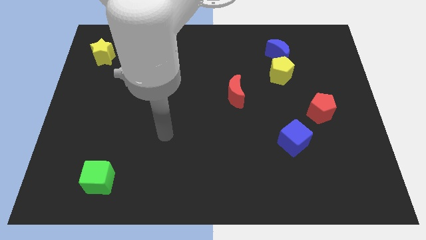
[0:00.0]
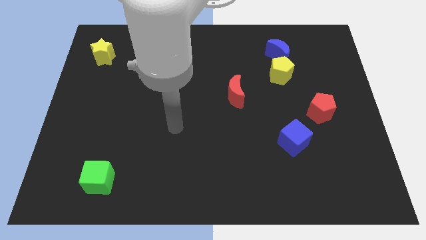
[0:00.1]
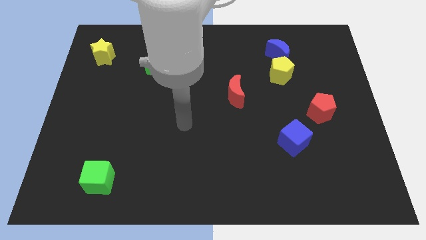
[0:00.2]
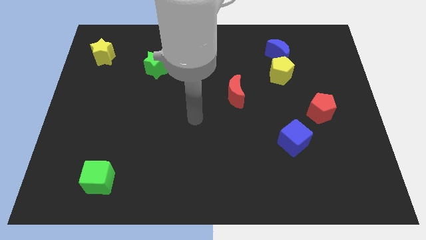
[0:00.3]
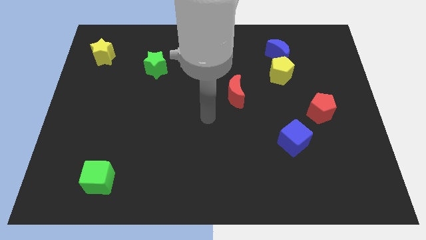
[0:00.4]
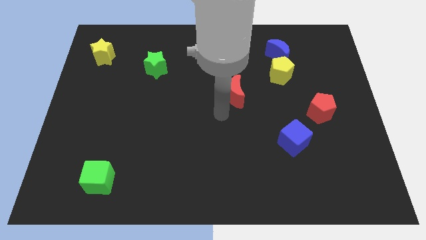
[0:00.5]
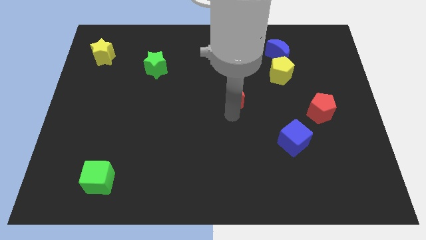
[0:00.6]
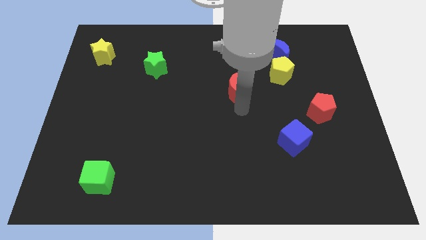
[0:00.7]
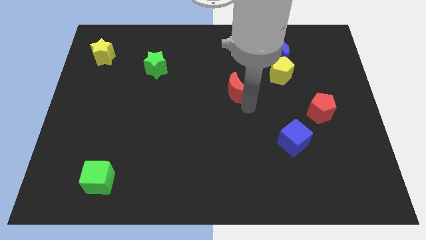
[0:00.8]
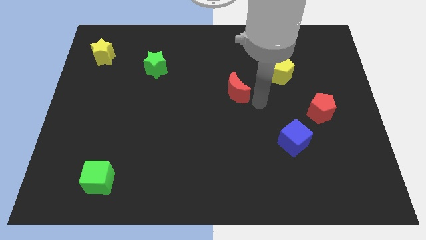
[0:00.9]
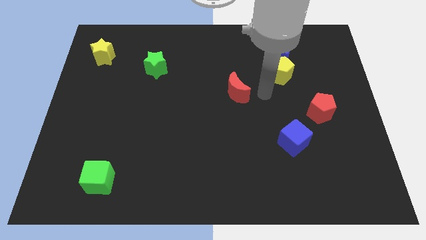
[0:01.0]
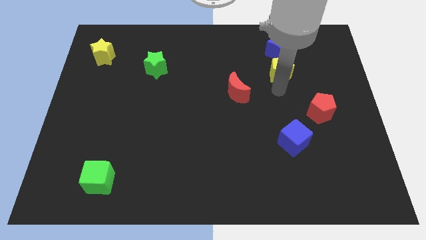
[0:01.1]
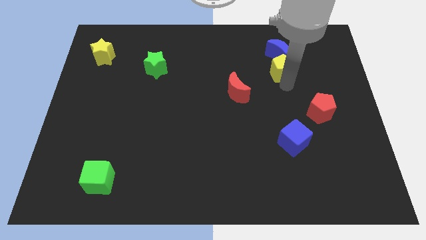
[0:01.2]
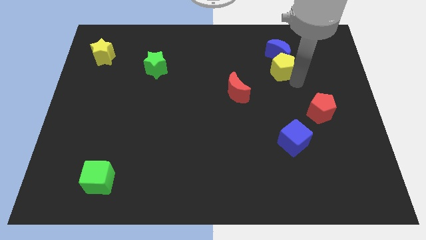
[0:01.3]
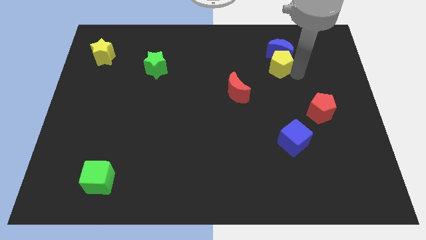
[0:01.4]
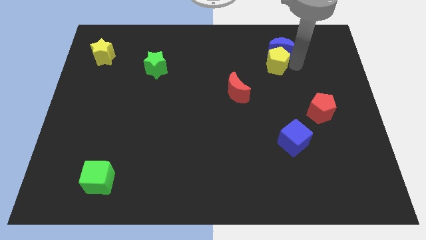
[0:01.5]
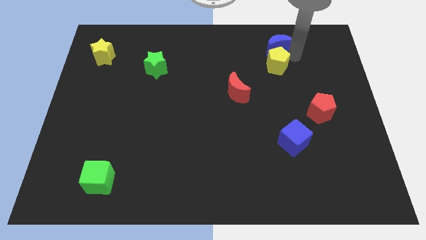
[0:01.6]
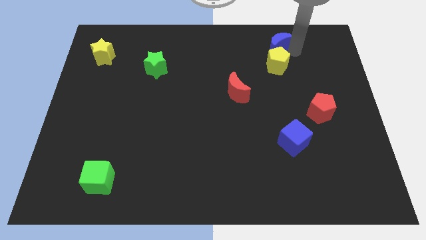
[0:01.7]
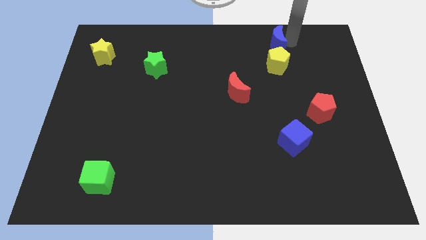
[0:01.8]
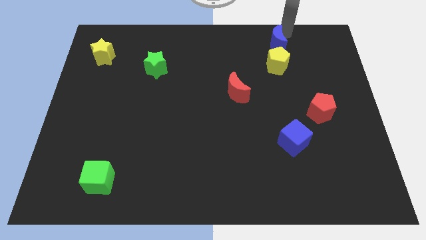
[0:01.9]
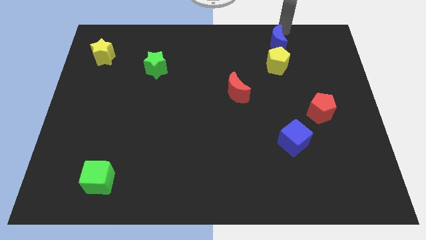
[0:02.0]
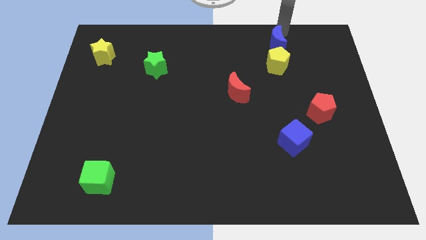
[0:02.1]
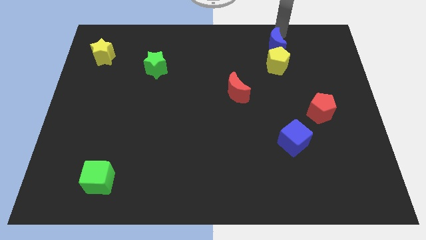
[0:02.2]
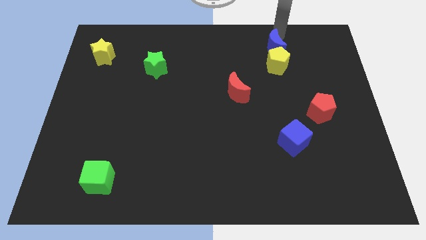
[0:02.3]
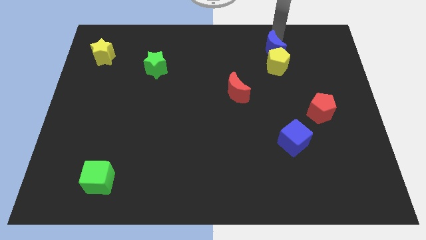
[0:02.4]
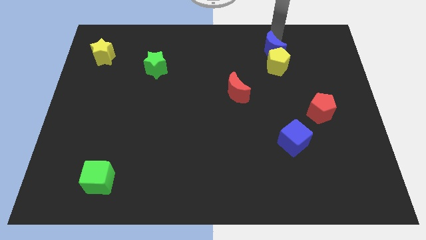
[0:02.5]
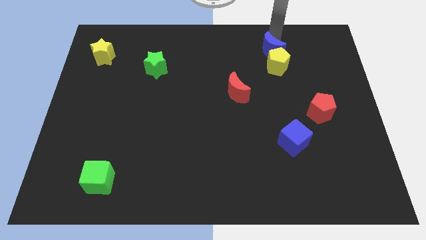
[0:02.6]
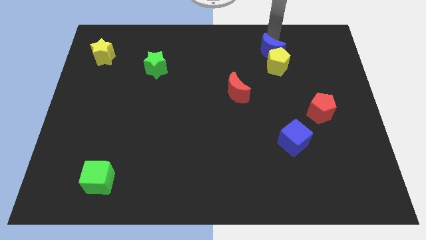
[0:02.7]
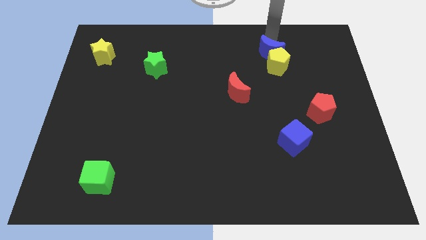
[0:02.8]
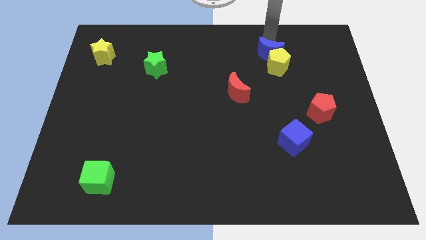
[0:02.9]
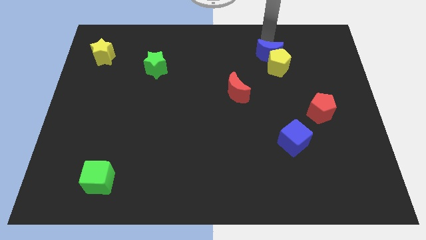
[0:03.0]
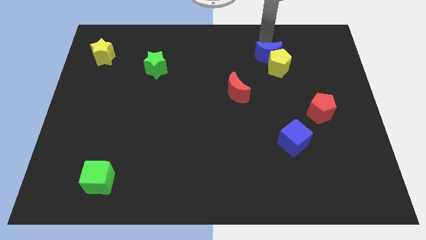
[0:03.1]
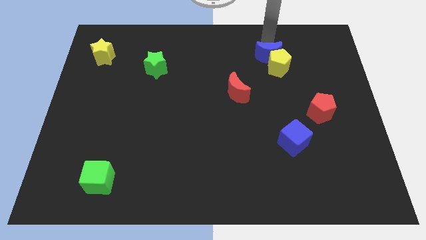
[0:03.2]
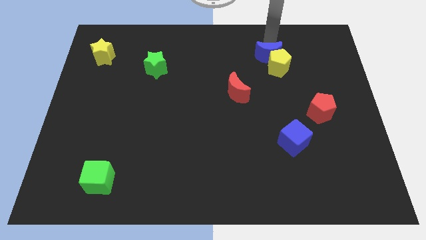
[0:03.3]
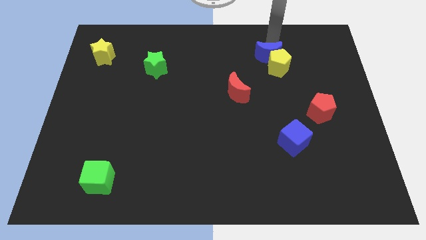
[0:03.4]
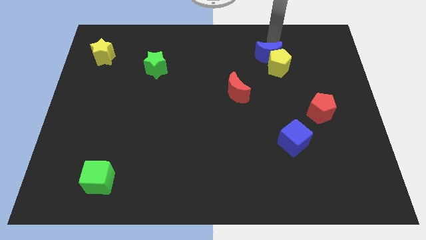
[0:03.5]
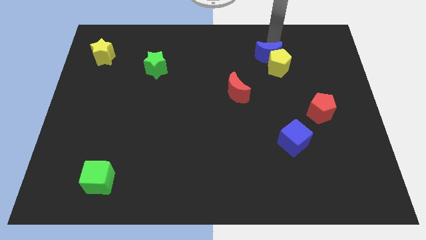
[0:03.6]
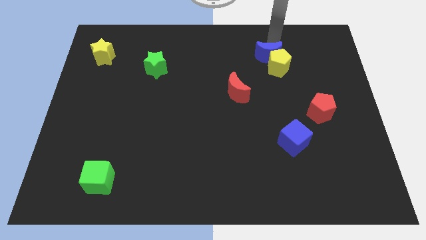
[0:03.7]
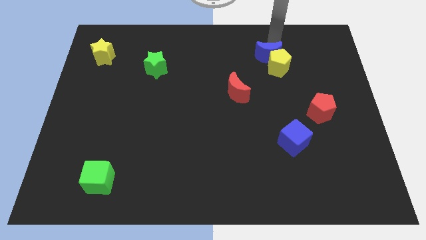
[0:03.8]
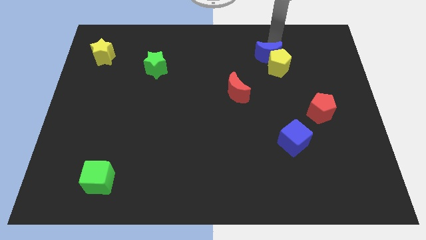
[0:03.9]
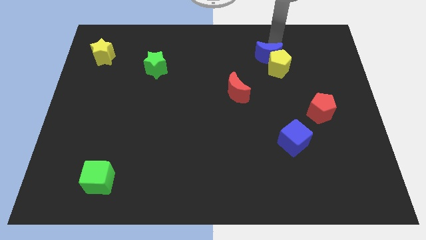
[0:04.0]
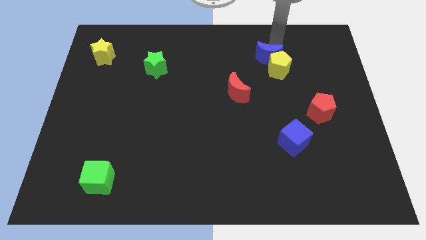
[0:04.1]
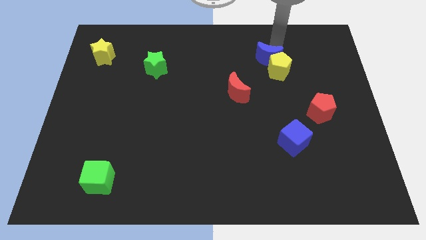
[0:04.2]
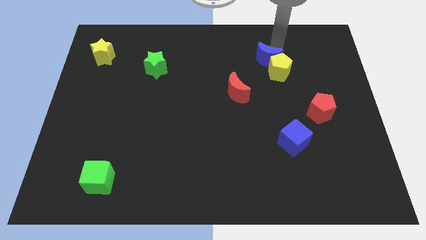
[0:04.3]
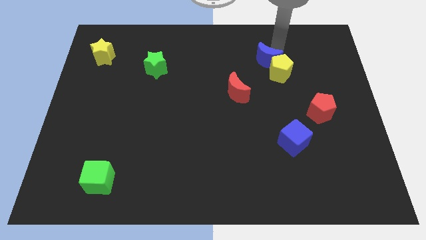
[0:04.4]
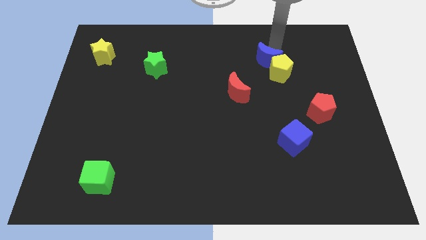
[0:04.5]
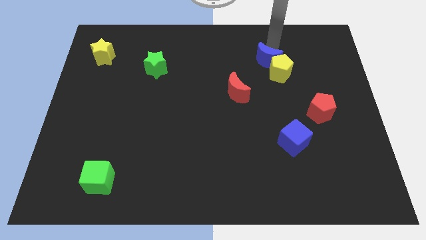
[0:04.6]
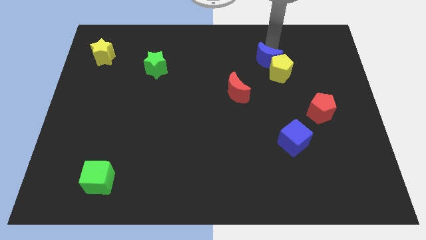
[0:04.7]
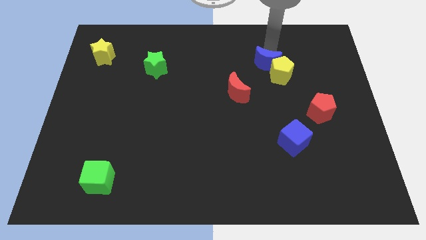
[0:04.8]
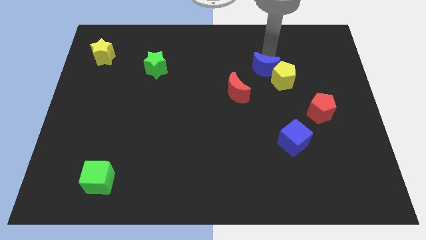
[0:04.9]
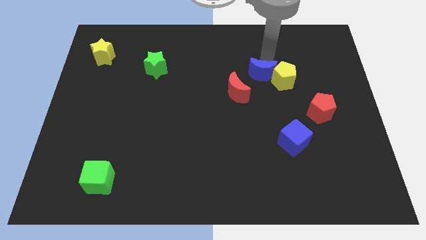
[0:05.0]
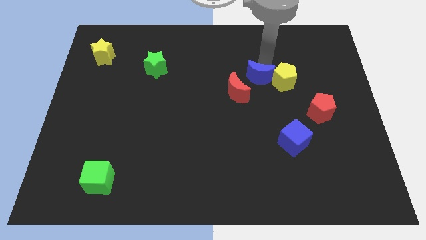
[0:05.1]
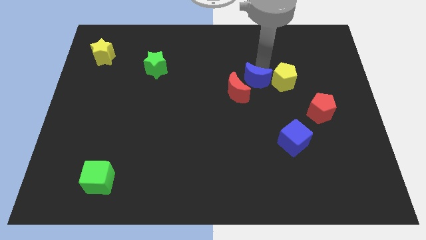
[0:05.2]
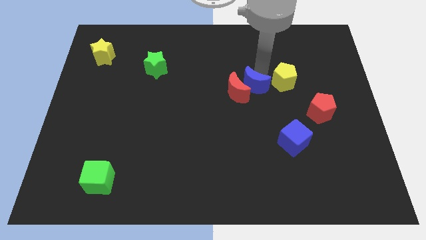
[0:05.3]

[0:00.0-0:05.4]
slide the blue moon towards the red moon

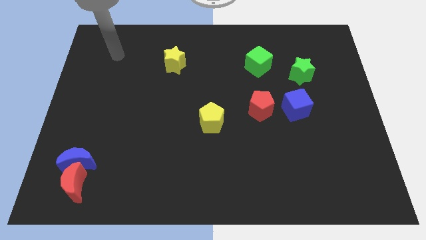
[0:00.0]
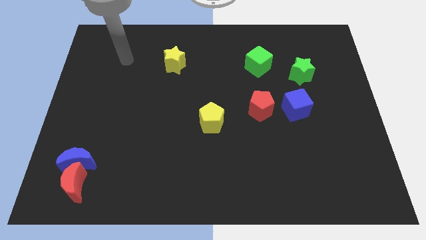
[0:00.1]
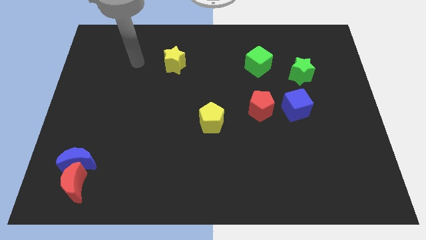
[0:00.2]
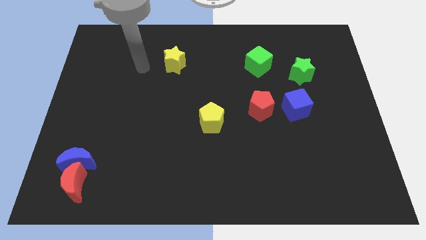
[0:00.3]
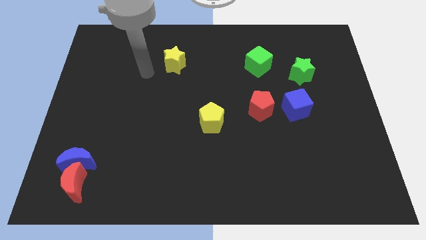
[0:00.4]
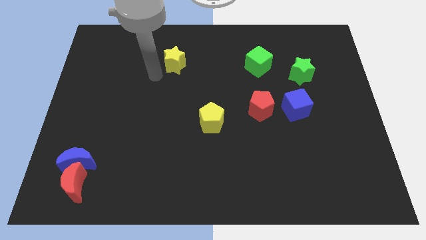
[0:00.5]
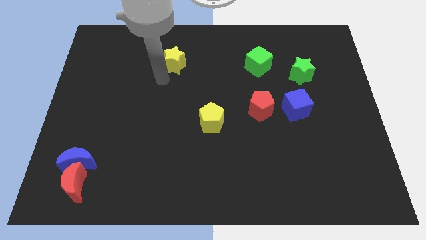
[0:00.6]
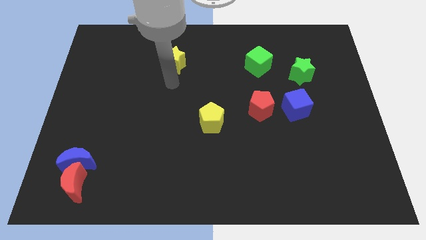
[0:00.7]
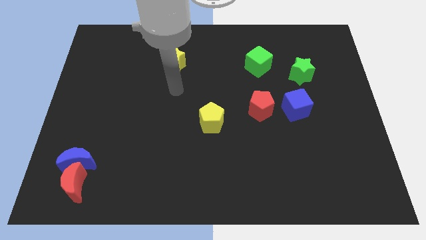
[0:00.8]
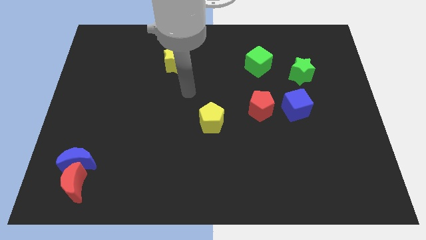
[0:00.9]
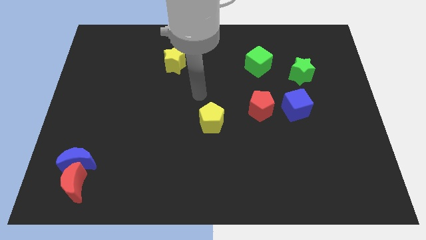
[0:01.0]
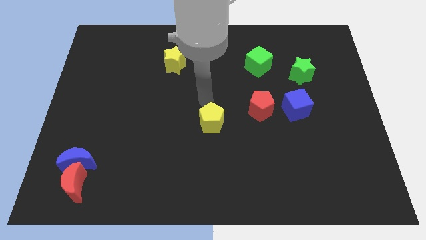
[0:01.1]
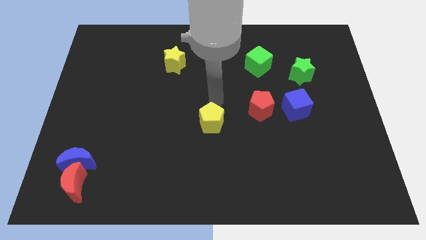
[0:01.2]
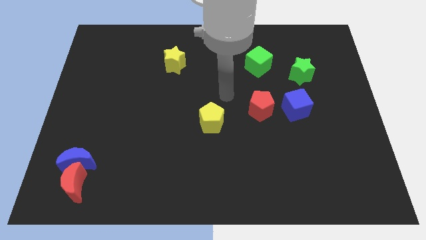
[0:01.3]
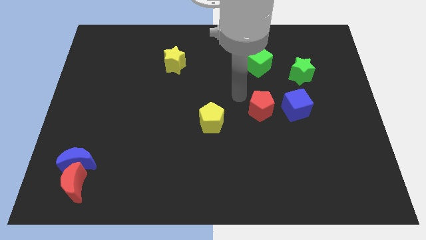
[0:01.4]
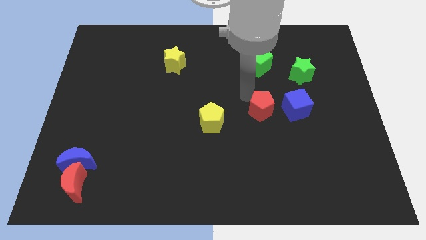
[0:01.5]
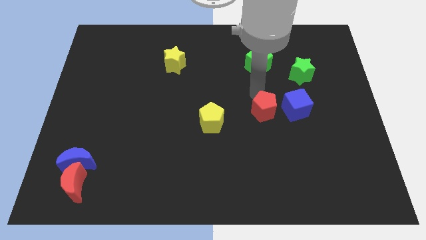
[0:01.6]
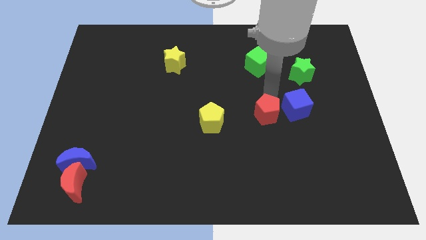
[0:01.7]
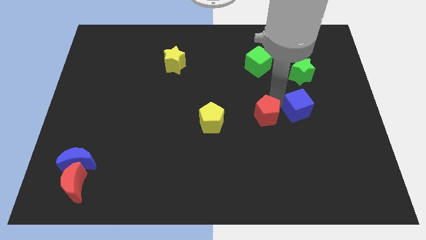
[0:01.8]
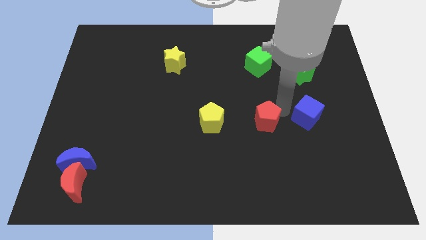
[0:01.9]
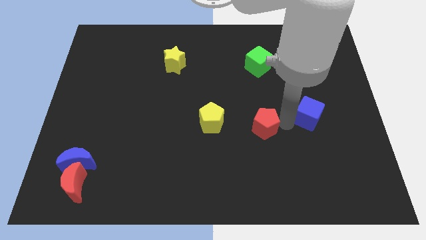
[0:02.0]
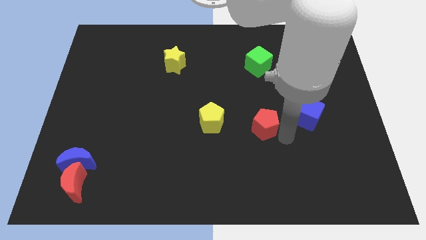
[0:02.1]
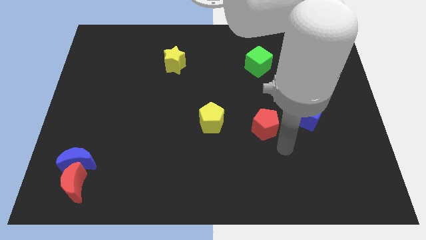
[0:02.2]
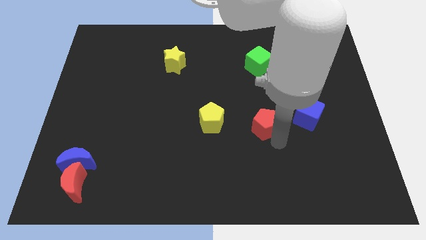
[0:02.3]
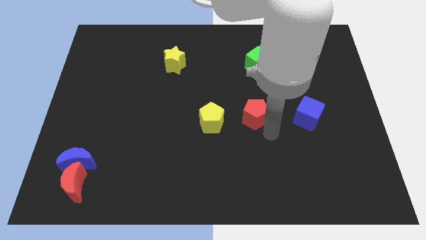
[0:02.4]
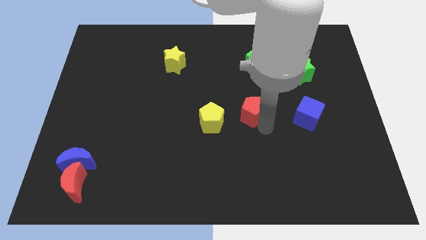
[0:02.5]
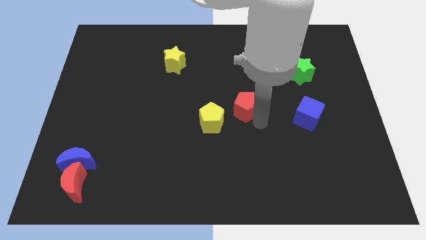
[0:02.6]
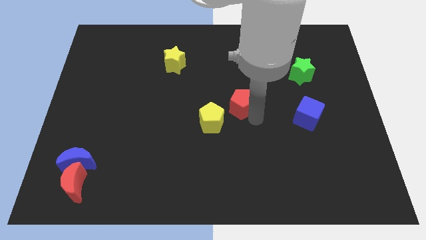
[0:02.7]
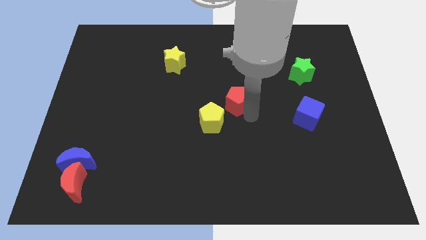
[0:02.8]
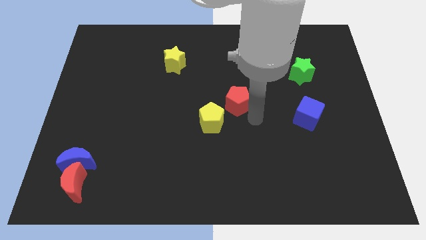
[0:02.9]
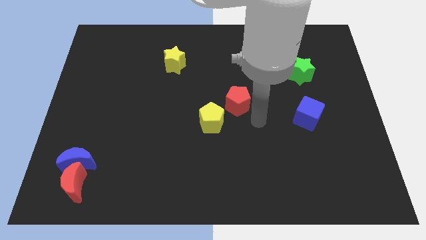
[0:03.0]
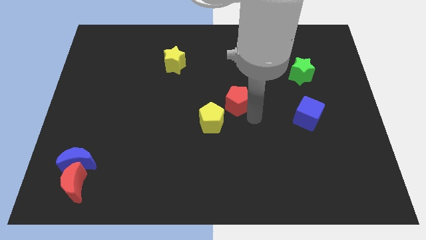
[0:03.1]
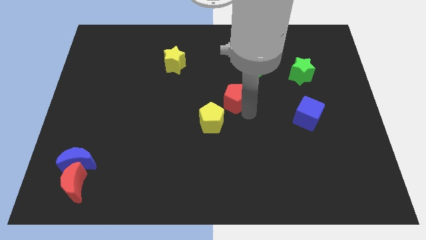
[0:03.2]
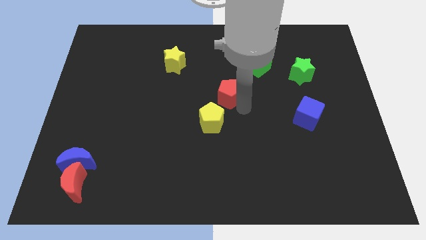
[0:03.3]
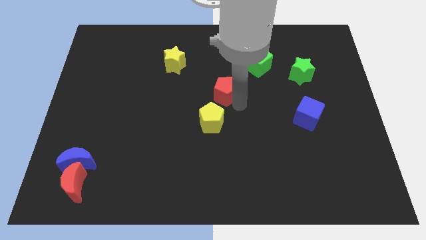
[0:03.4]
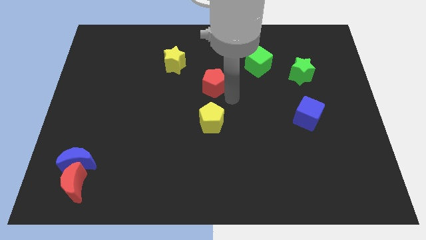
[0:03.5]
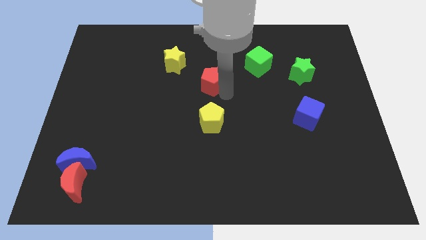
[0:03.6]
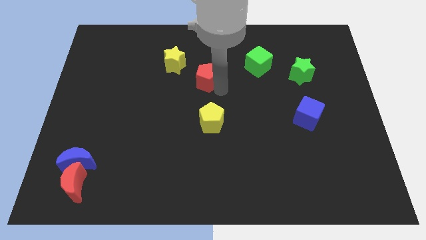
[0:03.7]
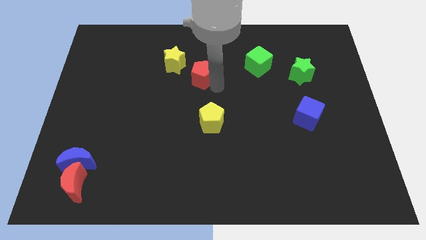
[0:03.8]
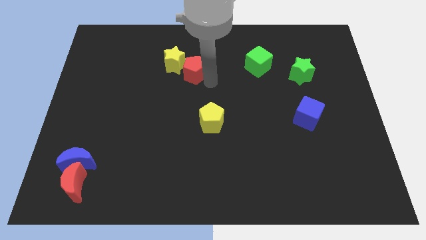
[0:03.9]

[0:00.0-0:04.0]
push the red pentagon towards the yellow star
